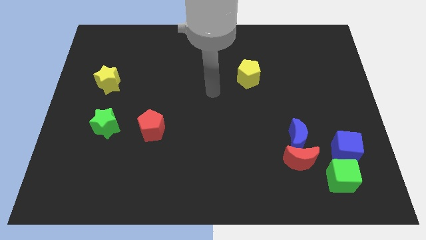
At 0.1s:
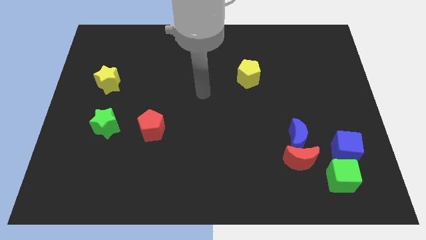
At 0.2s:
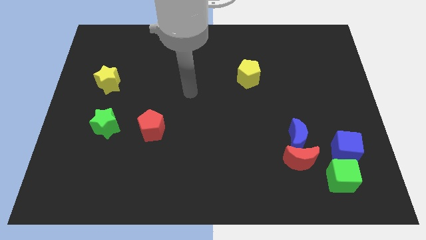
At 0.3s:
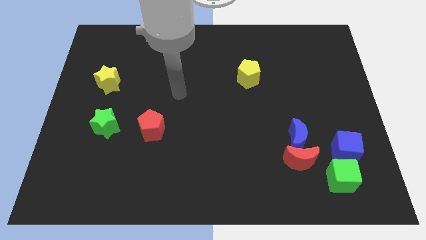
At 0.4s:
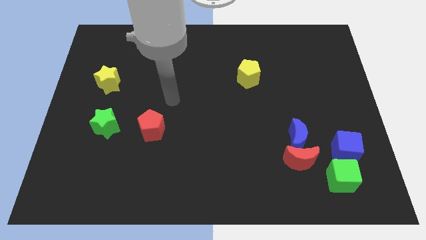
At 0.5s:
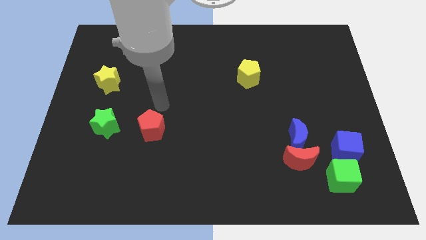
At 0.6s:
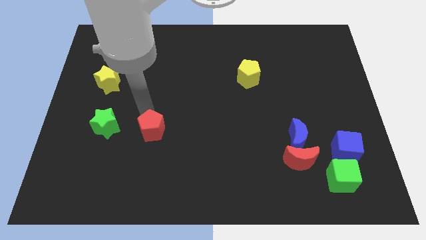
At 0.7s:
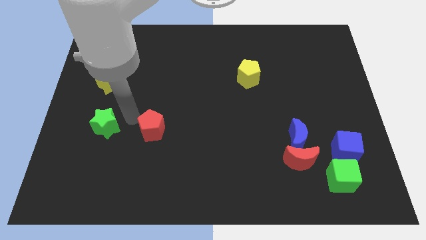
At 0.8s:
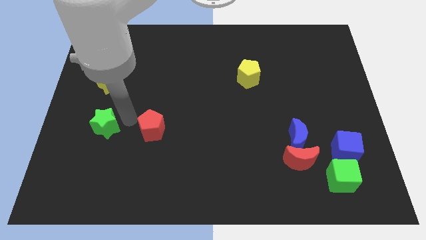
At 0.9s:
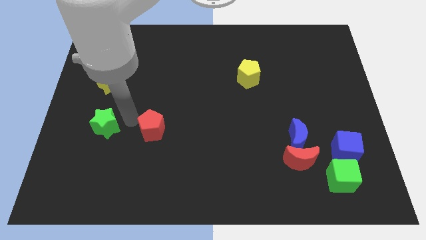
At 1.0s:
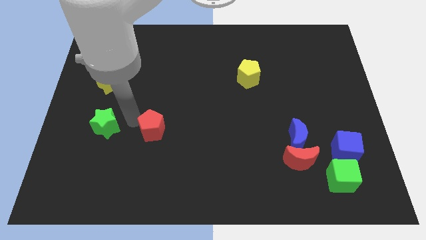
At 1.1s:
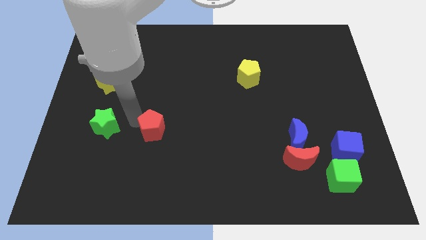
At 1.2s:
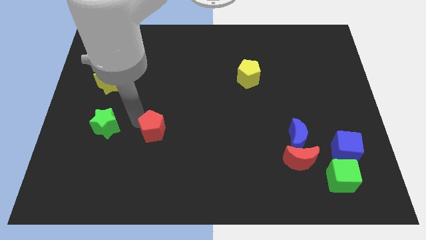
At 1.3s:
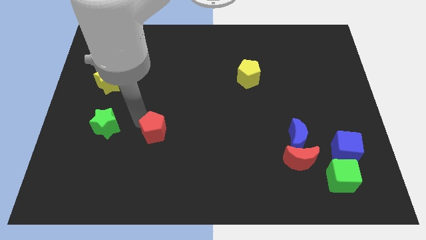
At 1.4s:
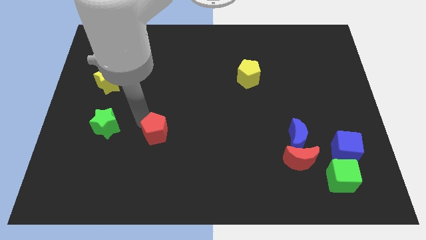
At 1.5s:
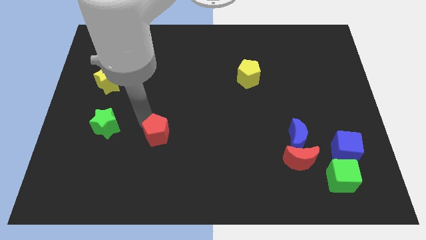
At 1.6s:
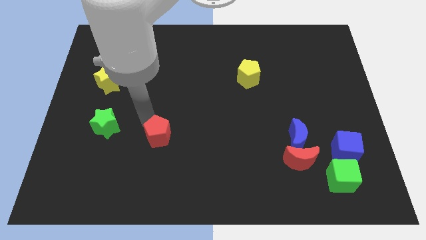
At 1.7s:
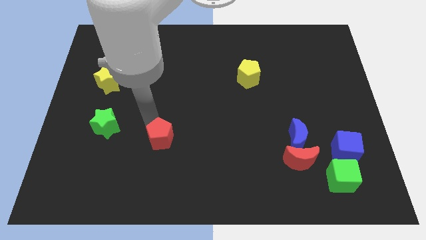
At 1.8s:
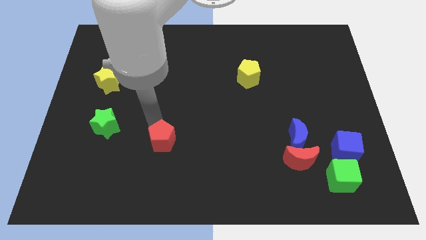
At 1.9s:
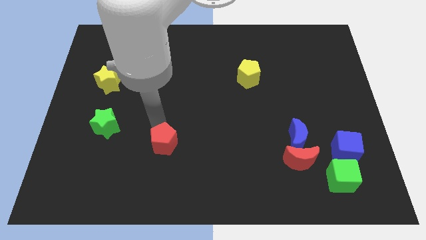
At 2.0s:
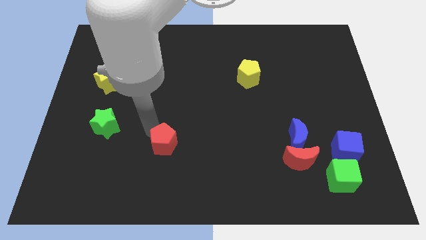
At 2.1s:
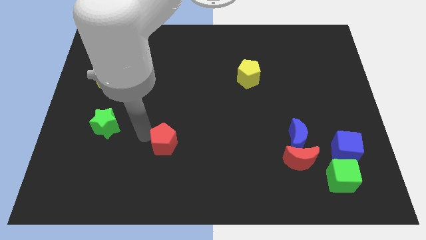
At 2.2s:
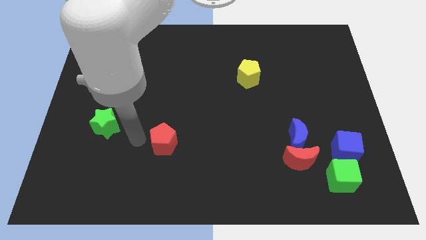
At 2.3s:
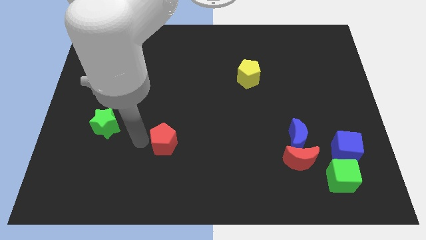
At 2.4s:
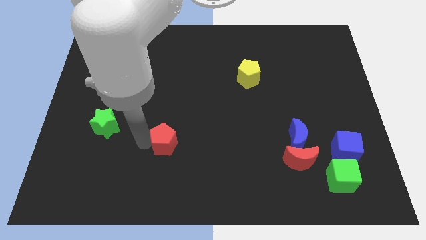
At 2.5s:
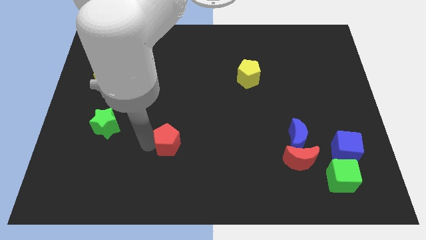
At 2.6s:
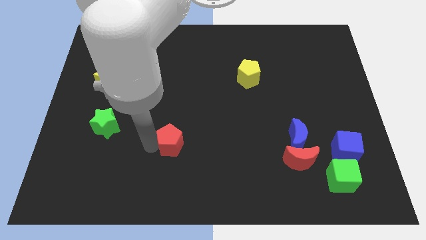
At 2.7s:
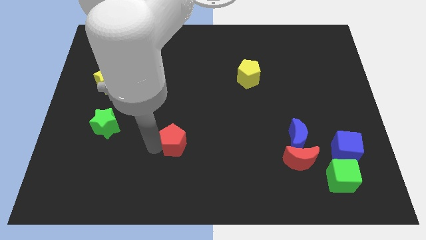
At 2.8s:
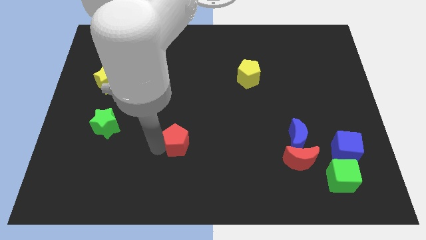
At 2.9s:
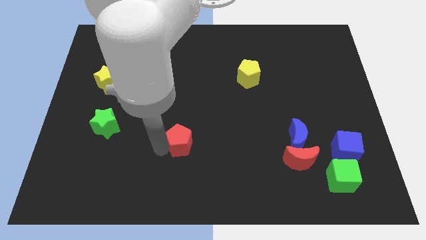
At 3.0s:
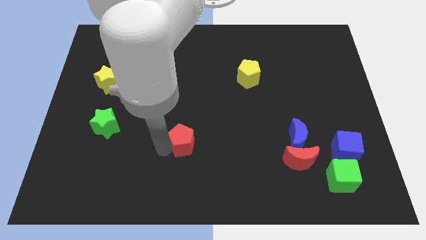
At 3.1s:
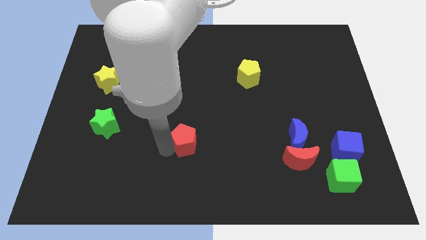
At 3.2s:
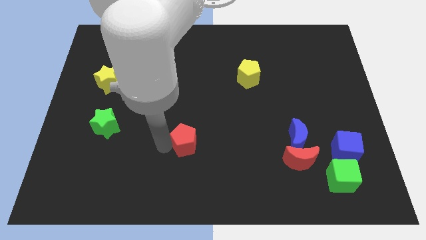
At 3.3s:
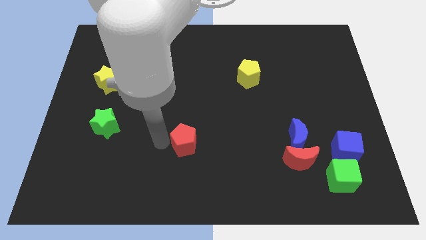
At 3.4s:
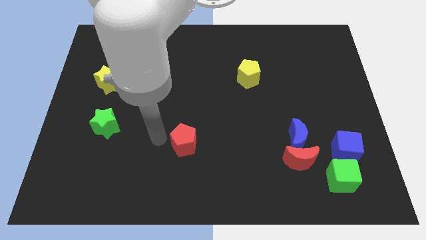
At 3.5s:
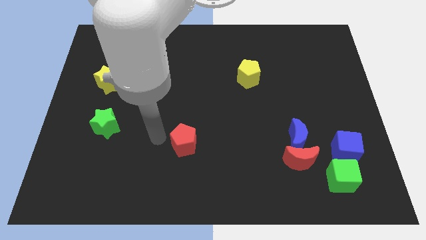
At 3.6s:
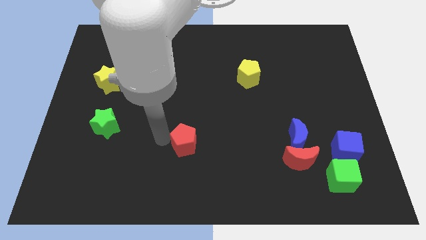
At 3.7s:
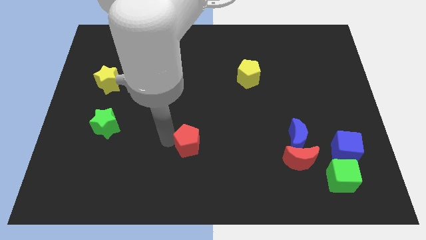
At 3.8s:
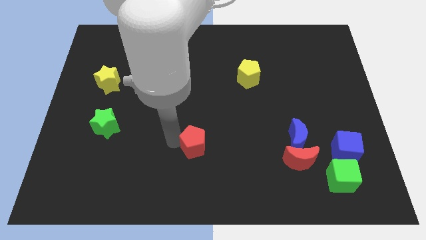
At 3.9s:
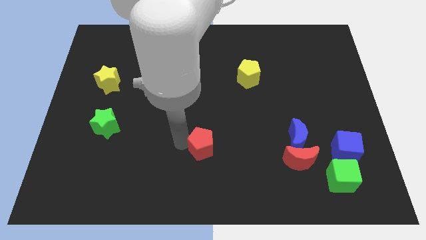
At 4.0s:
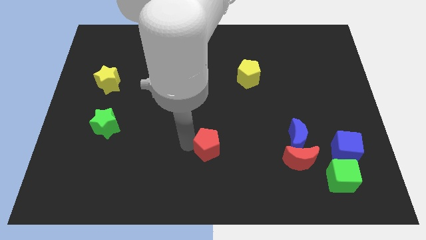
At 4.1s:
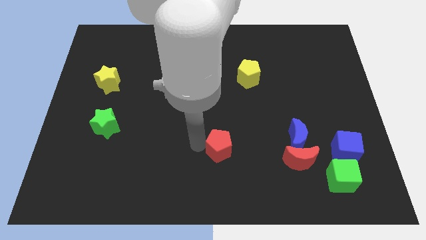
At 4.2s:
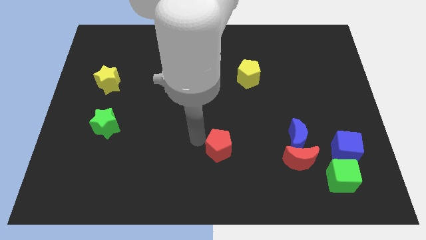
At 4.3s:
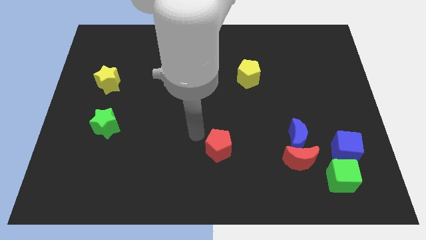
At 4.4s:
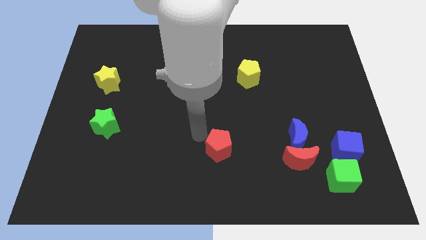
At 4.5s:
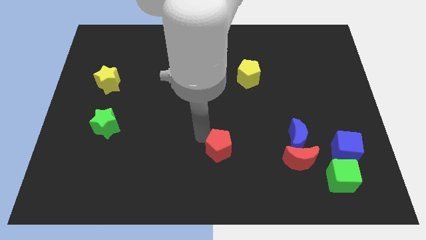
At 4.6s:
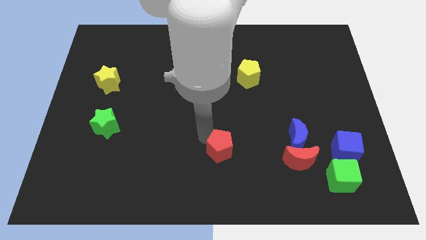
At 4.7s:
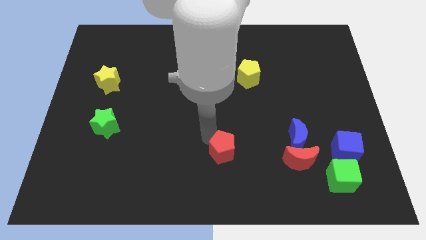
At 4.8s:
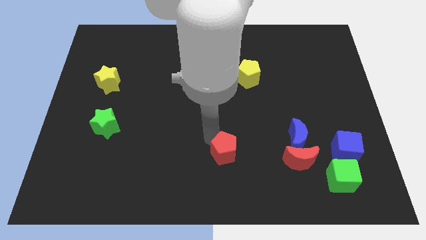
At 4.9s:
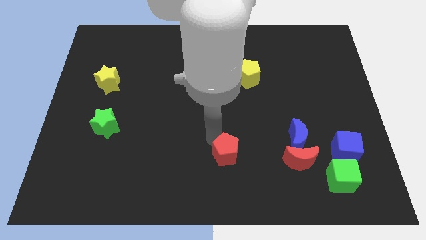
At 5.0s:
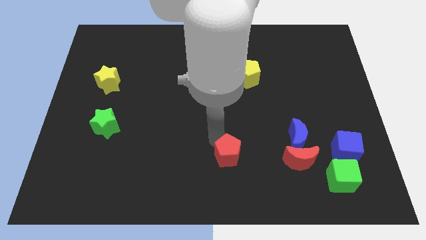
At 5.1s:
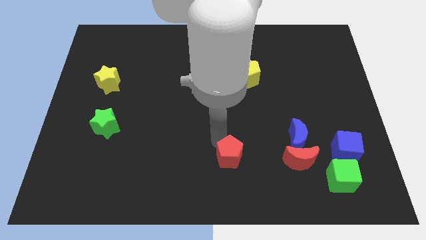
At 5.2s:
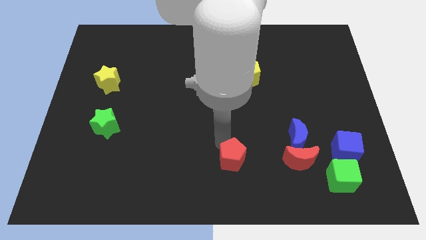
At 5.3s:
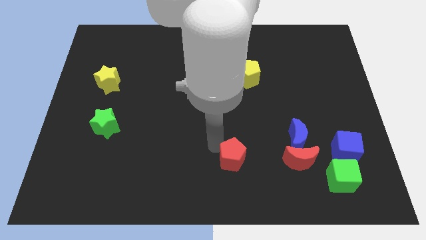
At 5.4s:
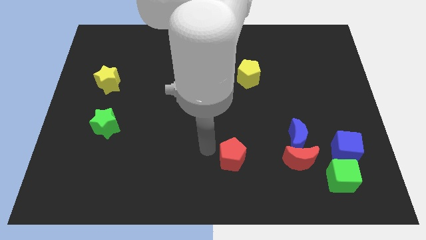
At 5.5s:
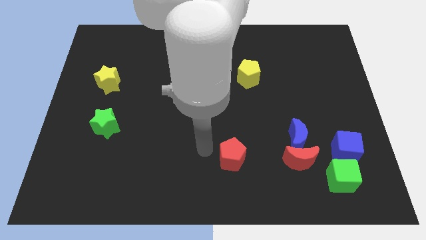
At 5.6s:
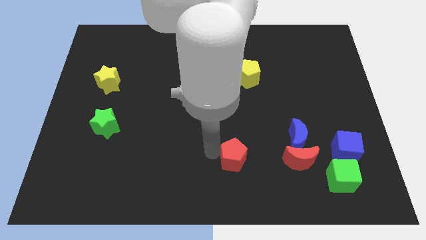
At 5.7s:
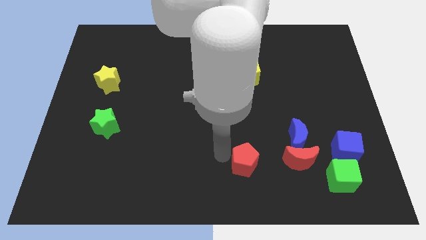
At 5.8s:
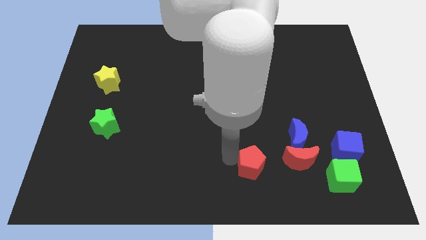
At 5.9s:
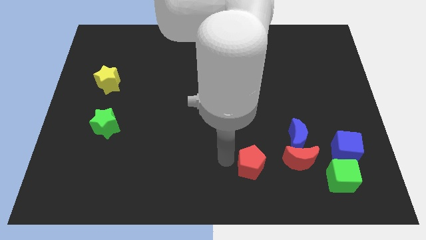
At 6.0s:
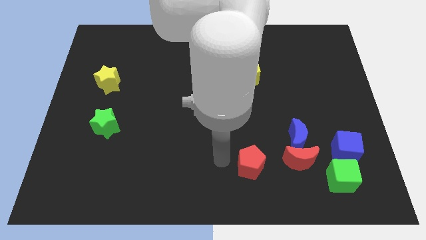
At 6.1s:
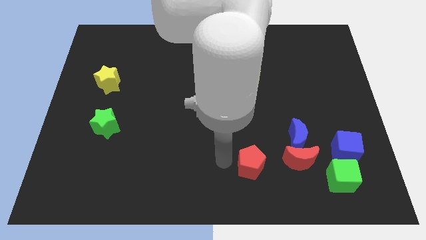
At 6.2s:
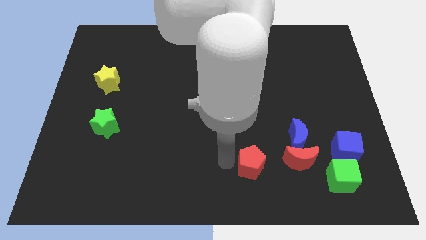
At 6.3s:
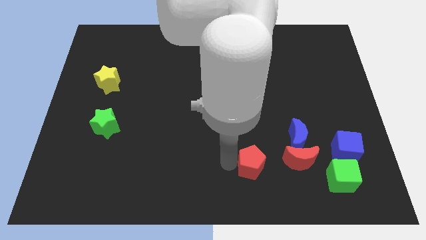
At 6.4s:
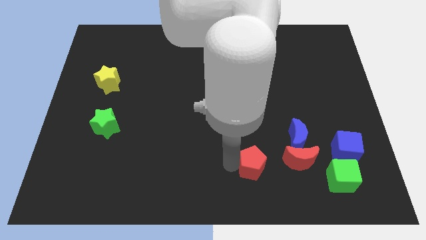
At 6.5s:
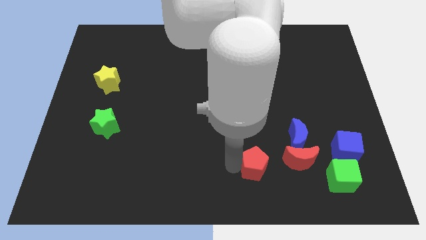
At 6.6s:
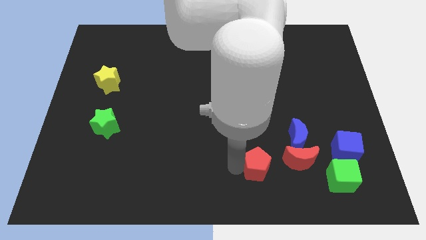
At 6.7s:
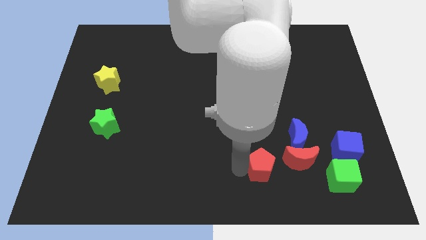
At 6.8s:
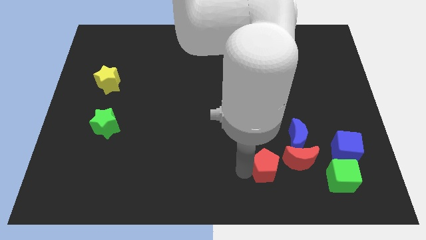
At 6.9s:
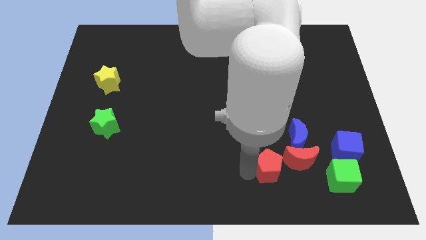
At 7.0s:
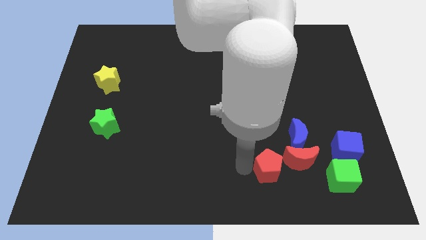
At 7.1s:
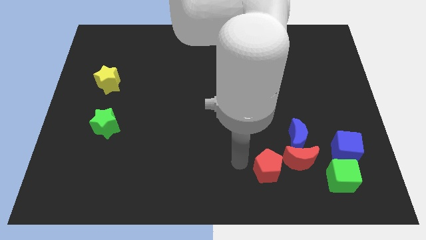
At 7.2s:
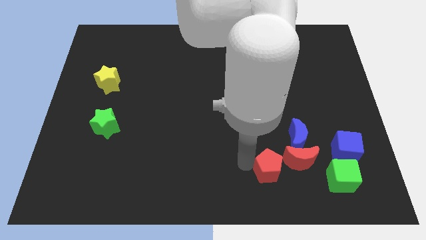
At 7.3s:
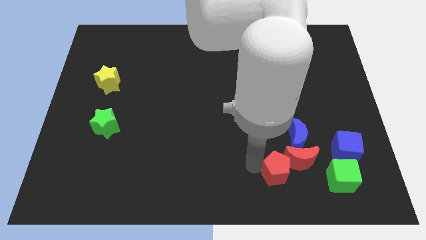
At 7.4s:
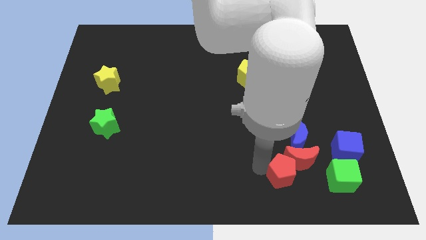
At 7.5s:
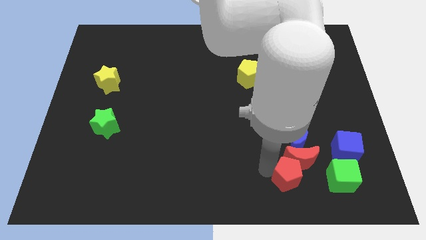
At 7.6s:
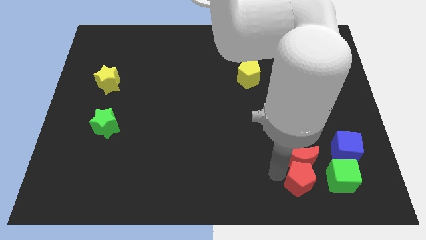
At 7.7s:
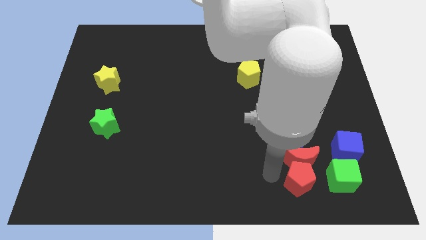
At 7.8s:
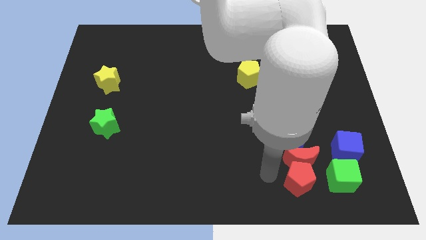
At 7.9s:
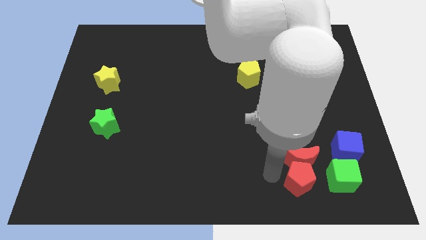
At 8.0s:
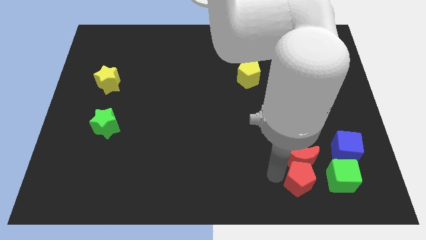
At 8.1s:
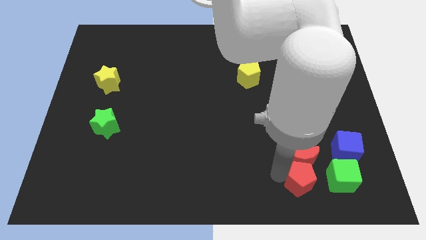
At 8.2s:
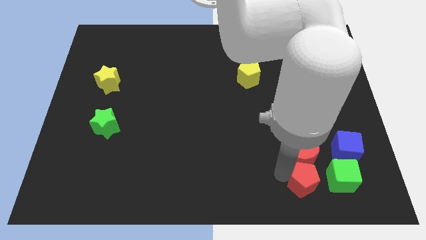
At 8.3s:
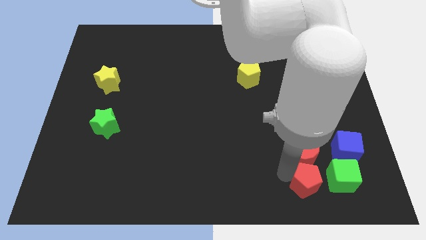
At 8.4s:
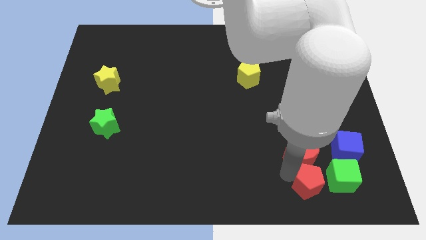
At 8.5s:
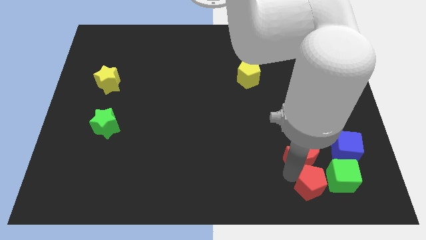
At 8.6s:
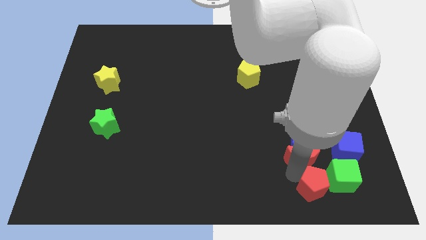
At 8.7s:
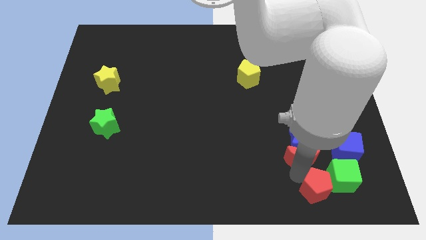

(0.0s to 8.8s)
slide the red pentagon towards the green cube
